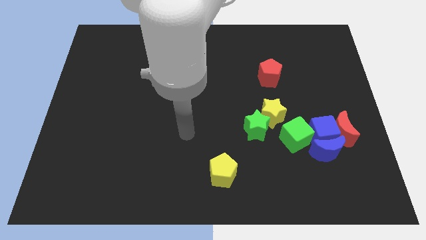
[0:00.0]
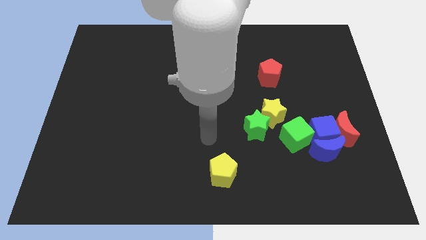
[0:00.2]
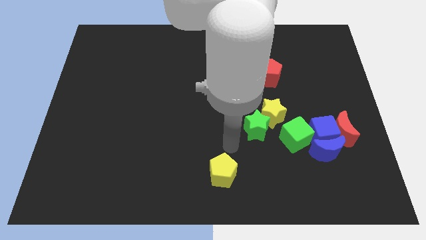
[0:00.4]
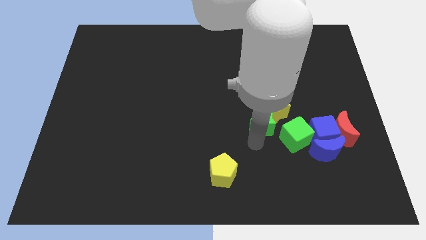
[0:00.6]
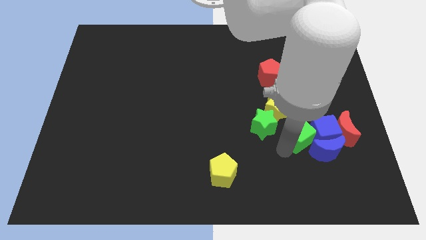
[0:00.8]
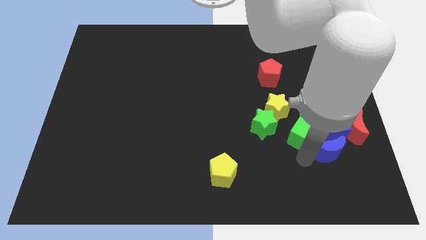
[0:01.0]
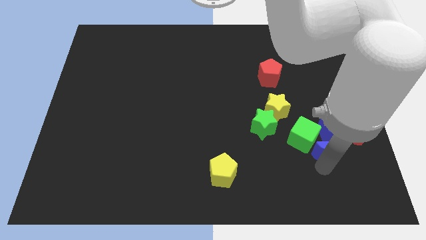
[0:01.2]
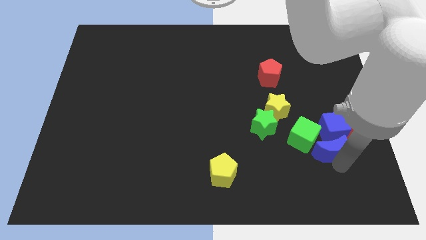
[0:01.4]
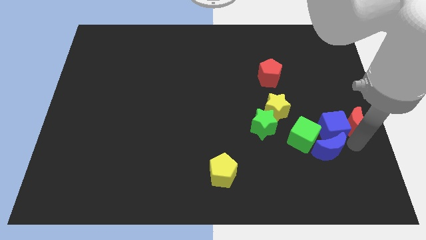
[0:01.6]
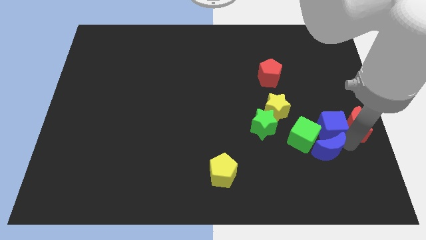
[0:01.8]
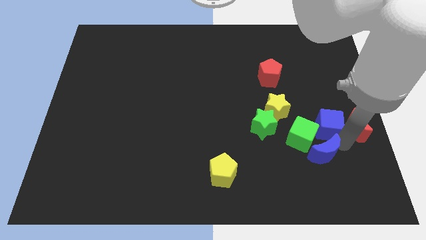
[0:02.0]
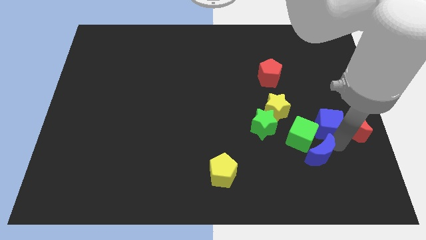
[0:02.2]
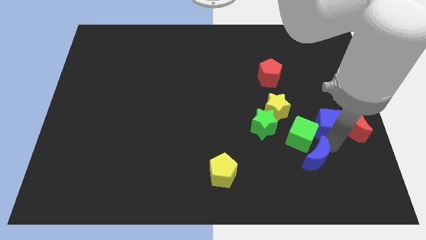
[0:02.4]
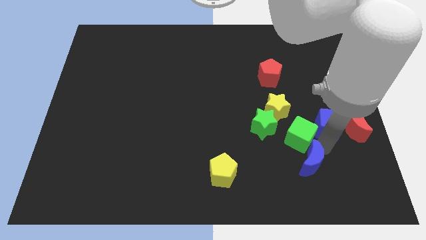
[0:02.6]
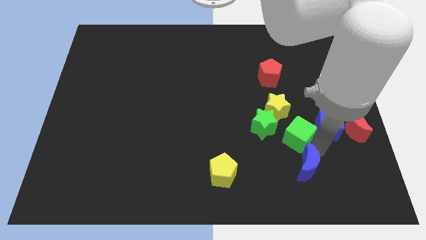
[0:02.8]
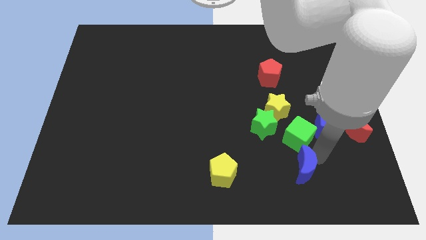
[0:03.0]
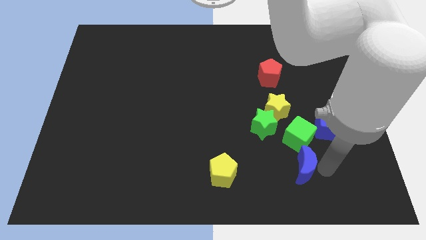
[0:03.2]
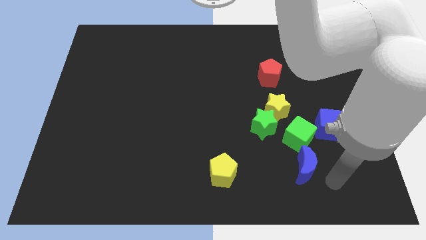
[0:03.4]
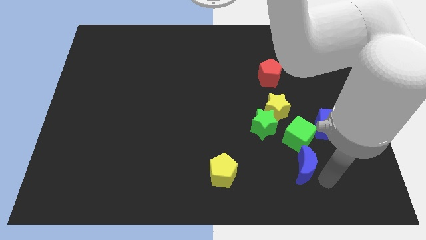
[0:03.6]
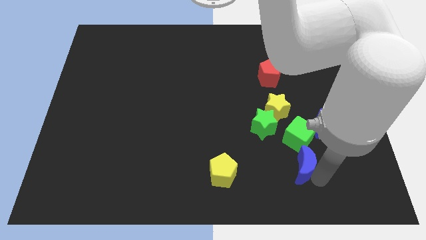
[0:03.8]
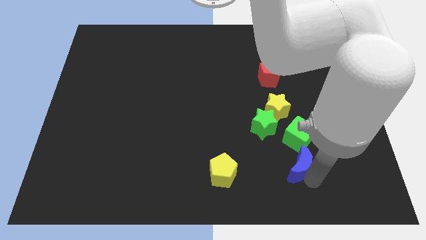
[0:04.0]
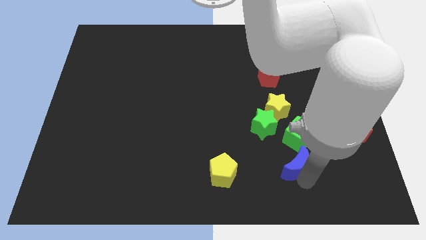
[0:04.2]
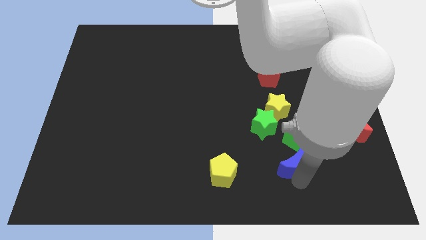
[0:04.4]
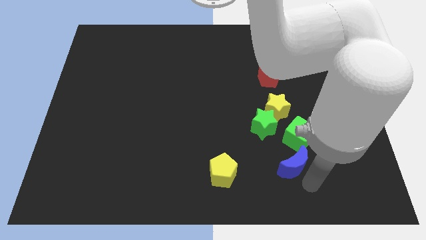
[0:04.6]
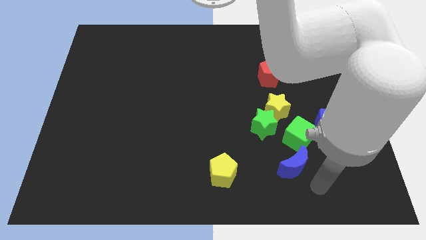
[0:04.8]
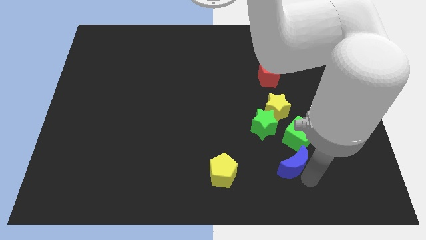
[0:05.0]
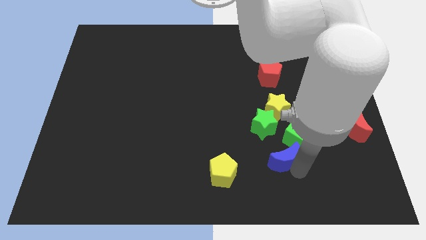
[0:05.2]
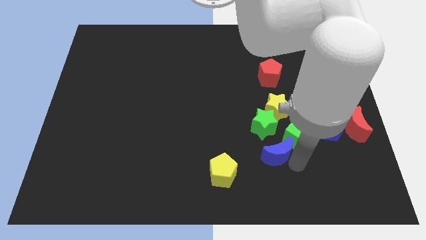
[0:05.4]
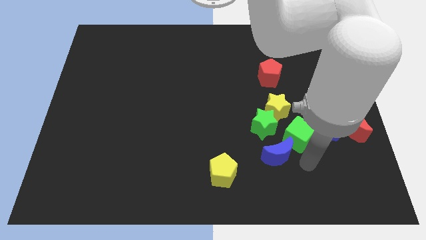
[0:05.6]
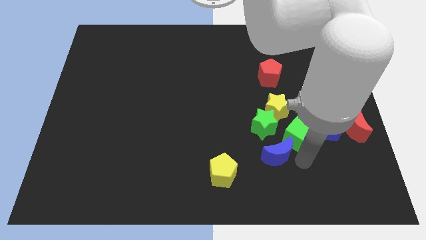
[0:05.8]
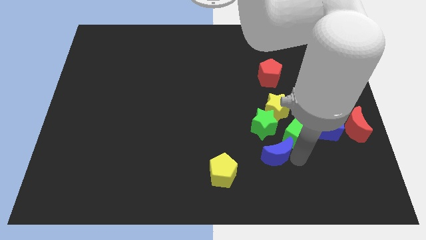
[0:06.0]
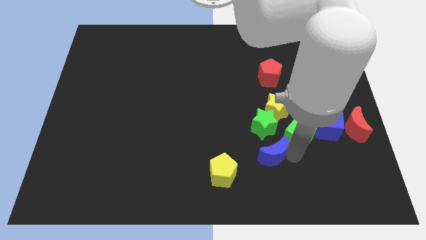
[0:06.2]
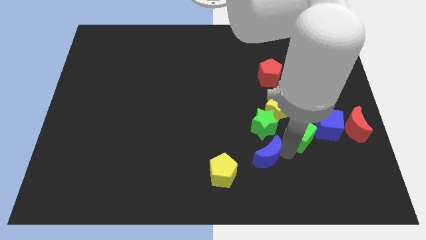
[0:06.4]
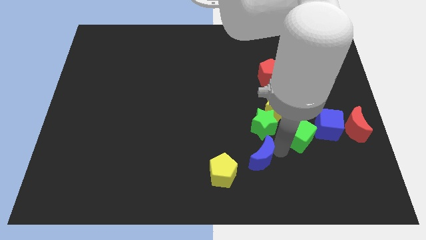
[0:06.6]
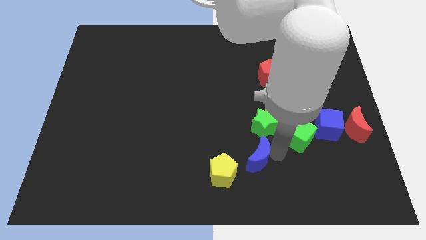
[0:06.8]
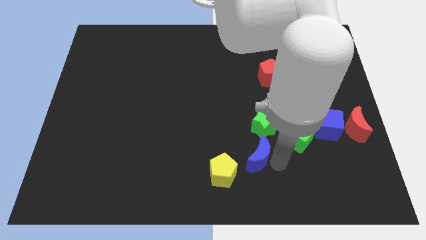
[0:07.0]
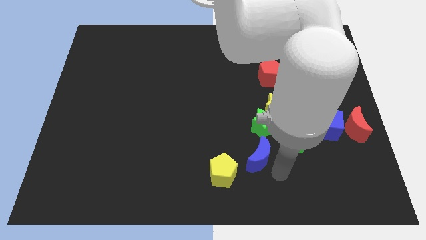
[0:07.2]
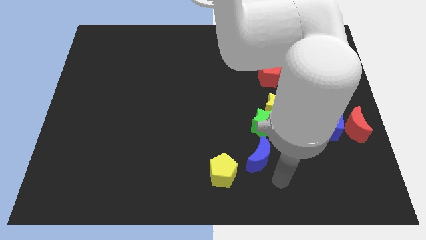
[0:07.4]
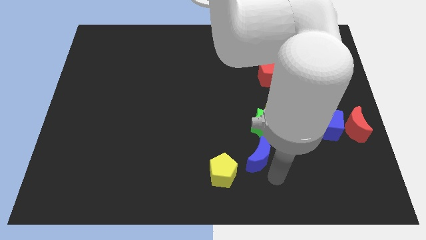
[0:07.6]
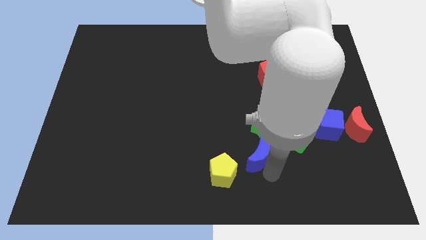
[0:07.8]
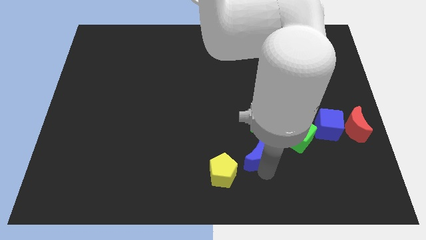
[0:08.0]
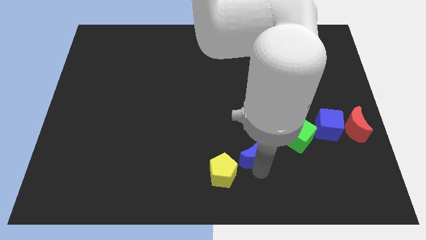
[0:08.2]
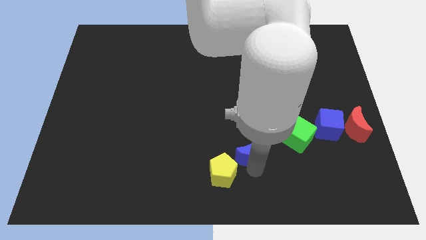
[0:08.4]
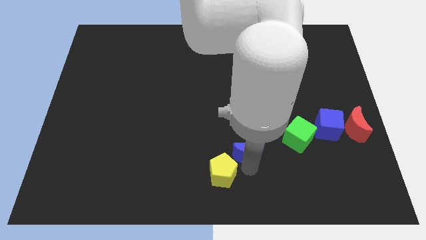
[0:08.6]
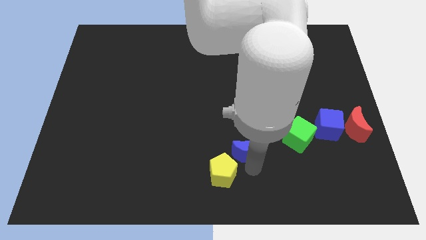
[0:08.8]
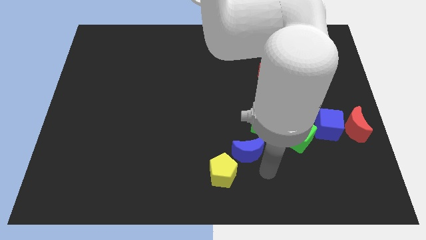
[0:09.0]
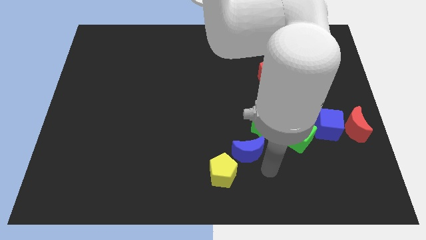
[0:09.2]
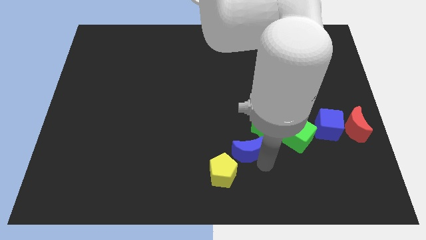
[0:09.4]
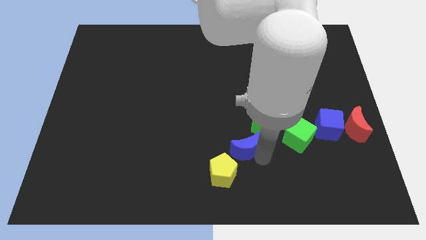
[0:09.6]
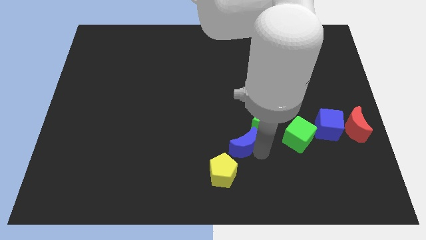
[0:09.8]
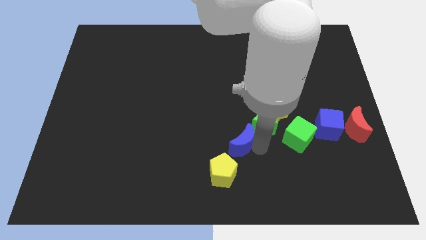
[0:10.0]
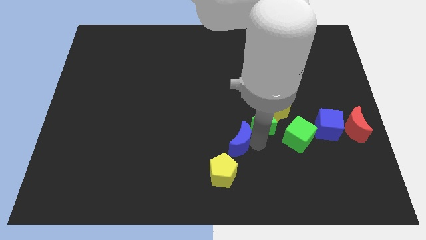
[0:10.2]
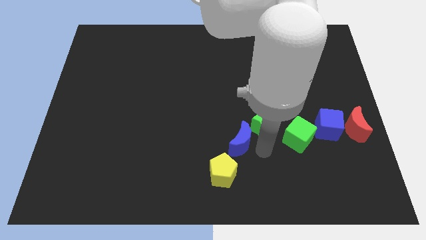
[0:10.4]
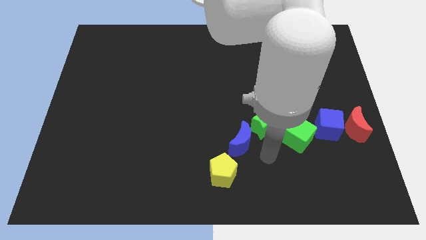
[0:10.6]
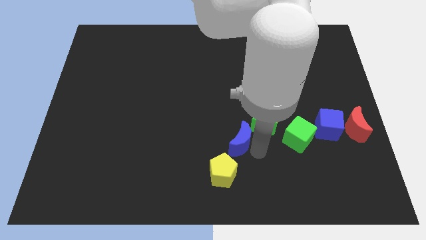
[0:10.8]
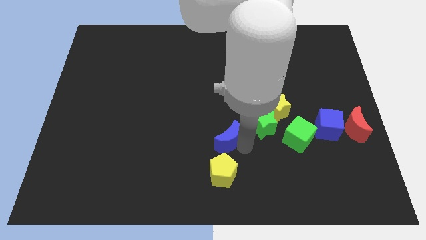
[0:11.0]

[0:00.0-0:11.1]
slide the blue moon to the middle

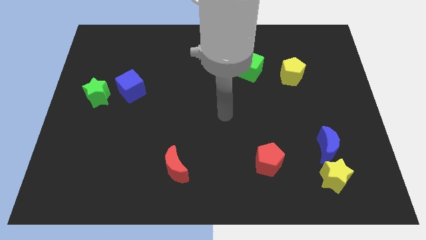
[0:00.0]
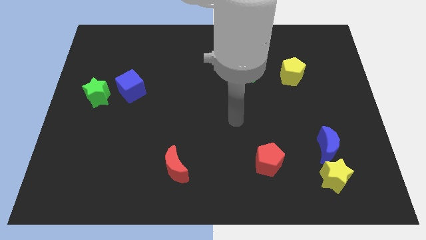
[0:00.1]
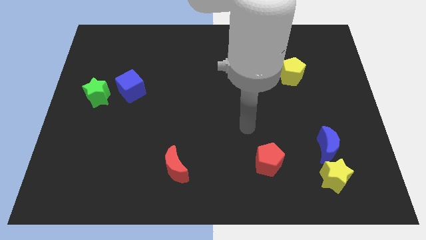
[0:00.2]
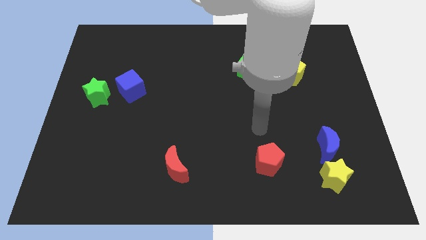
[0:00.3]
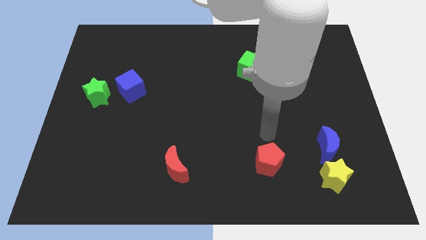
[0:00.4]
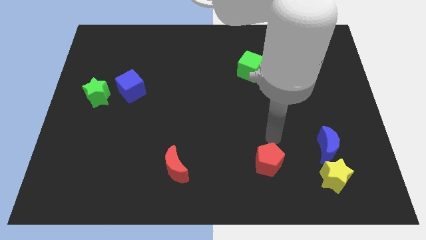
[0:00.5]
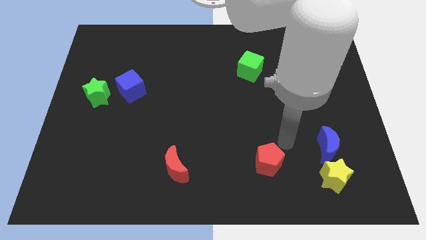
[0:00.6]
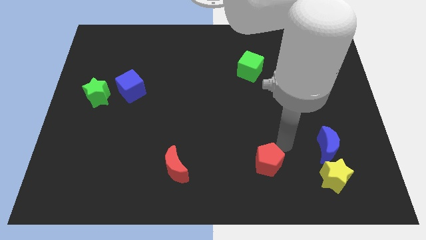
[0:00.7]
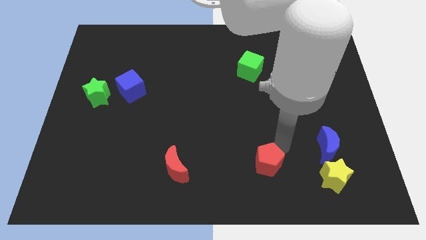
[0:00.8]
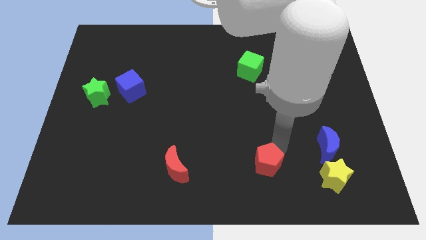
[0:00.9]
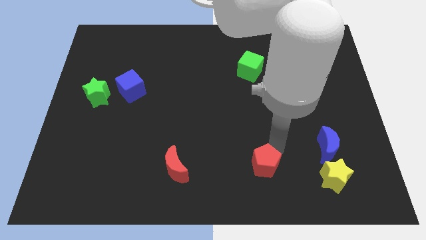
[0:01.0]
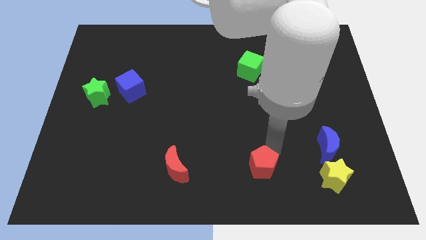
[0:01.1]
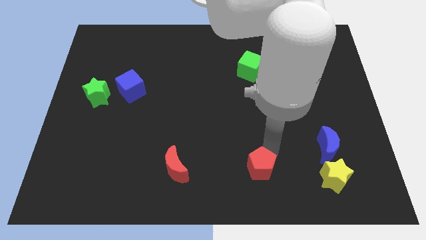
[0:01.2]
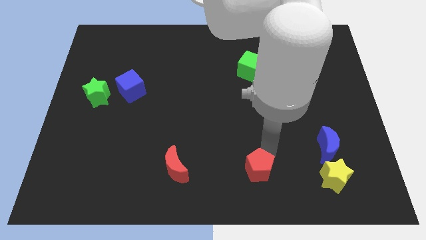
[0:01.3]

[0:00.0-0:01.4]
push the red pentagon to the bottom side
